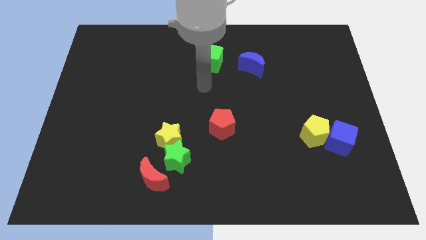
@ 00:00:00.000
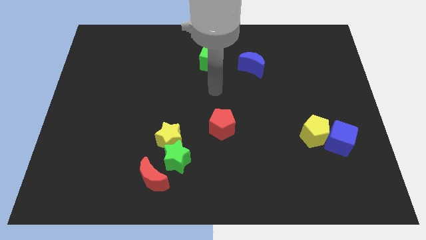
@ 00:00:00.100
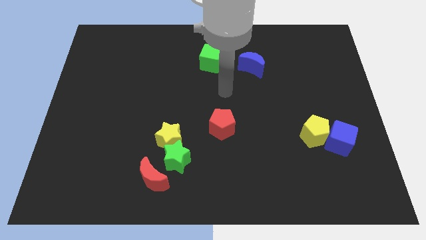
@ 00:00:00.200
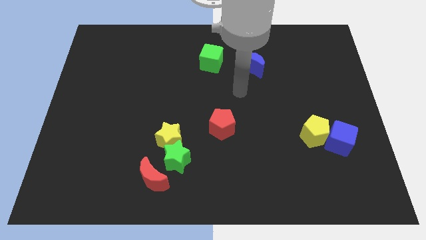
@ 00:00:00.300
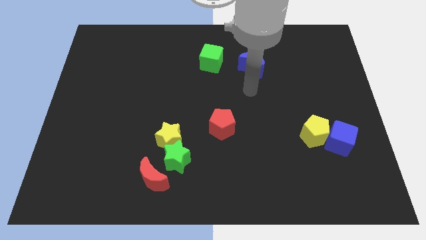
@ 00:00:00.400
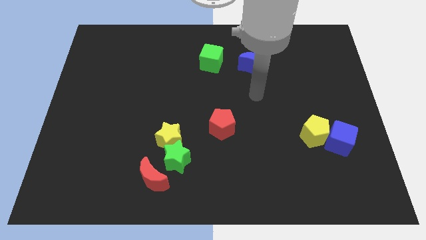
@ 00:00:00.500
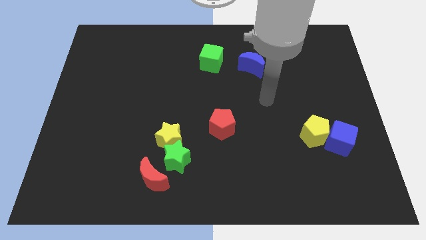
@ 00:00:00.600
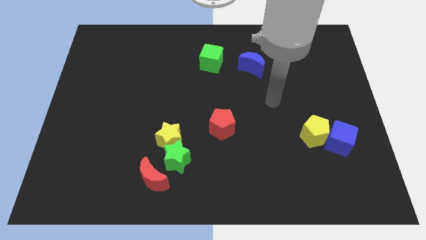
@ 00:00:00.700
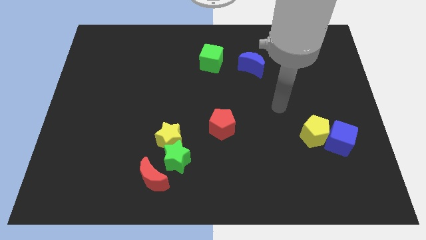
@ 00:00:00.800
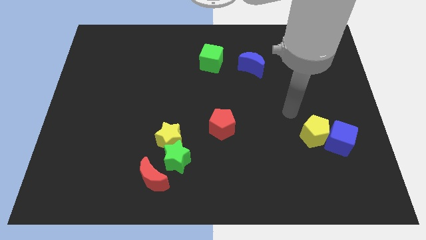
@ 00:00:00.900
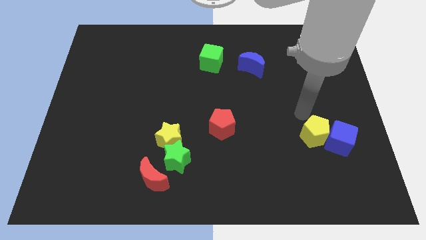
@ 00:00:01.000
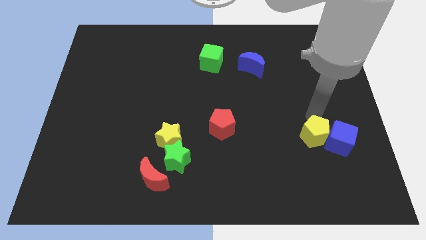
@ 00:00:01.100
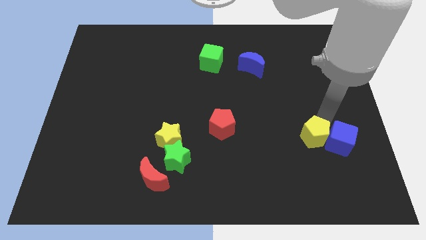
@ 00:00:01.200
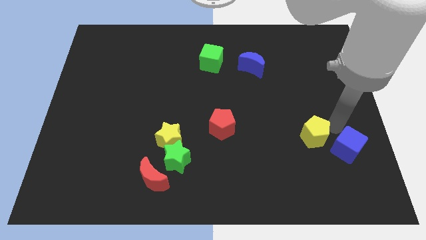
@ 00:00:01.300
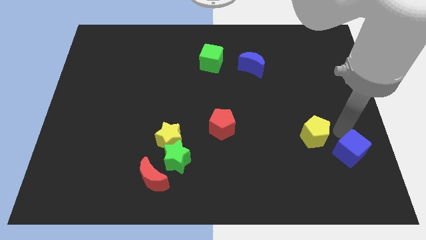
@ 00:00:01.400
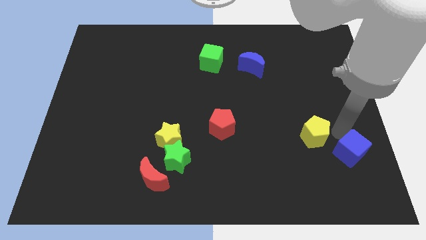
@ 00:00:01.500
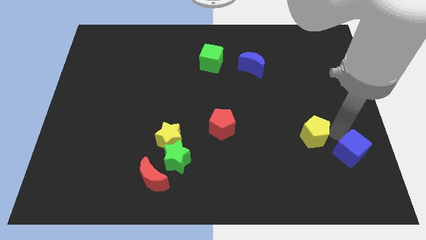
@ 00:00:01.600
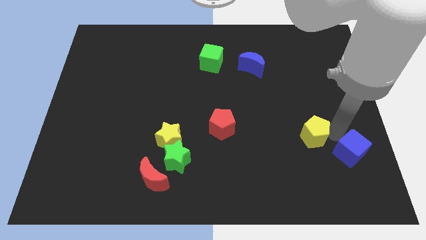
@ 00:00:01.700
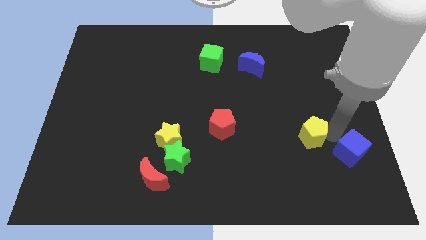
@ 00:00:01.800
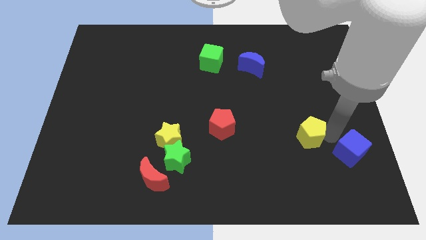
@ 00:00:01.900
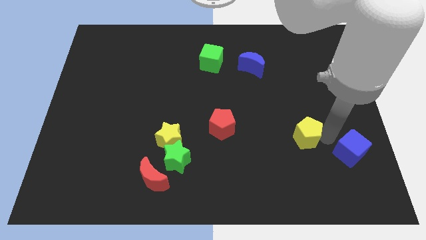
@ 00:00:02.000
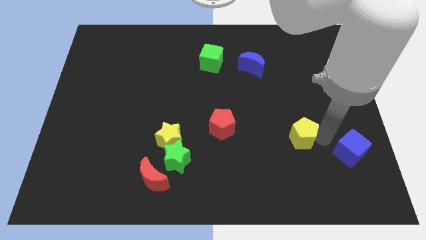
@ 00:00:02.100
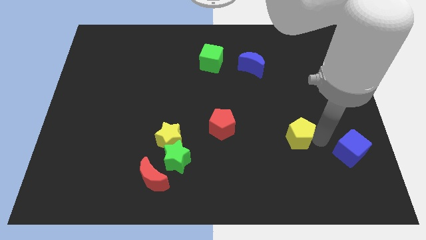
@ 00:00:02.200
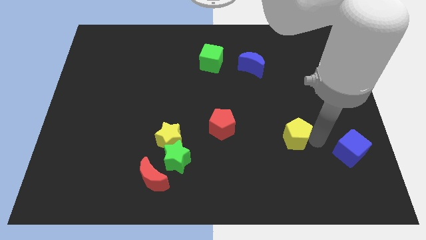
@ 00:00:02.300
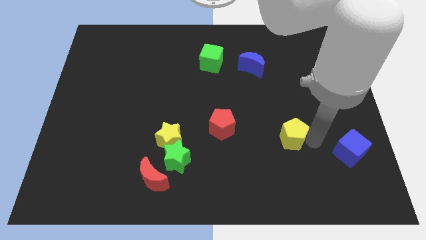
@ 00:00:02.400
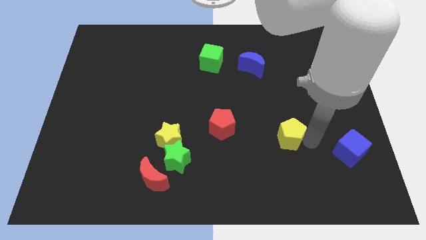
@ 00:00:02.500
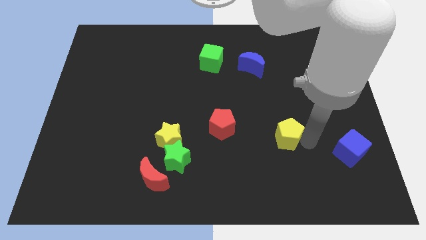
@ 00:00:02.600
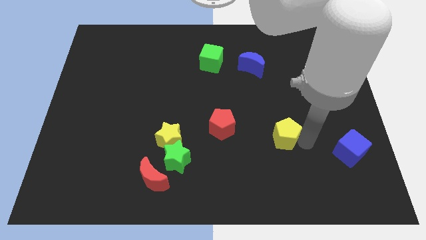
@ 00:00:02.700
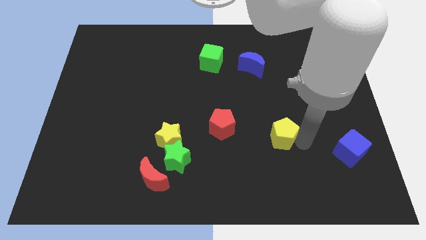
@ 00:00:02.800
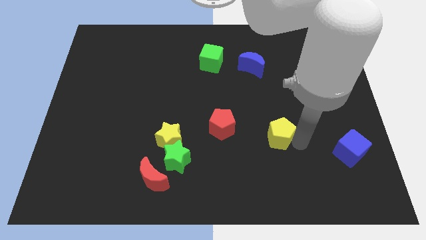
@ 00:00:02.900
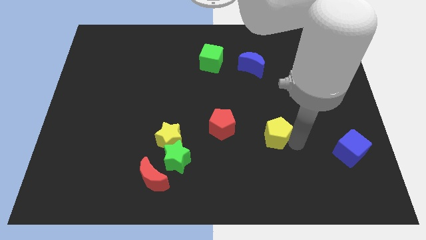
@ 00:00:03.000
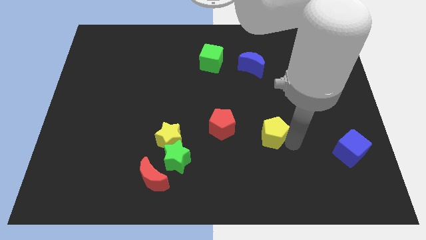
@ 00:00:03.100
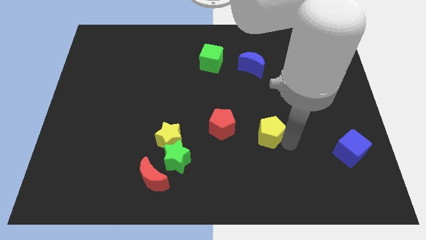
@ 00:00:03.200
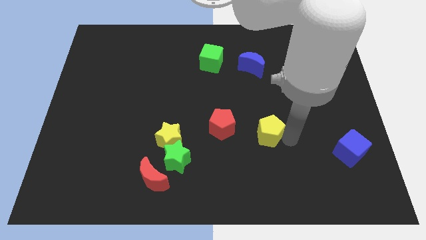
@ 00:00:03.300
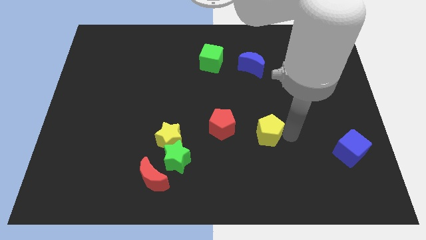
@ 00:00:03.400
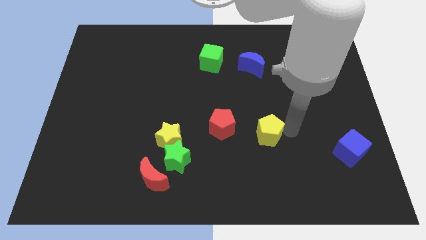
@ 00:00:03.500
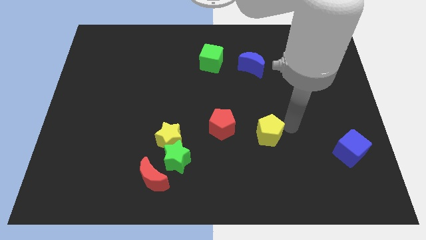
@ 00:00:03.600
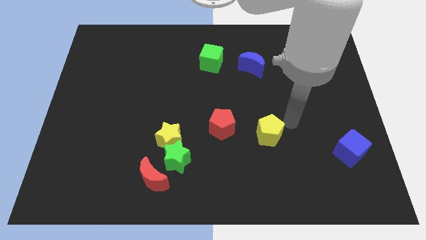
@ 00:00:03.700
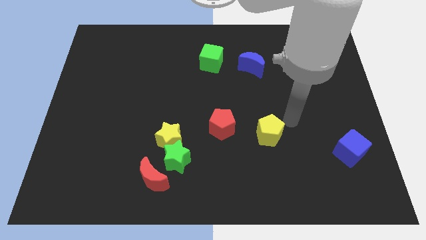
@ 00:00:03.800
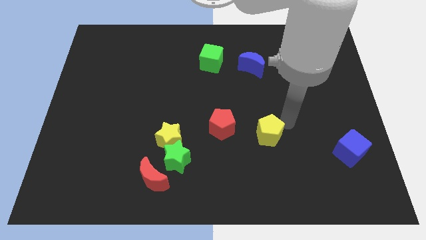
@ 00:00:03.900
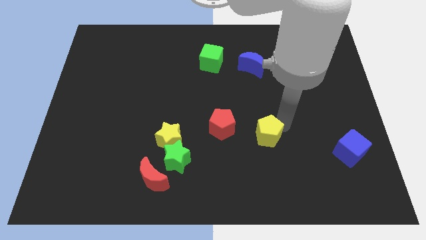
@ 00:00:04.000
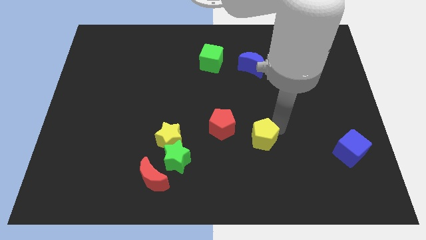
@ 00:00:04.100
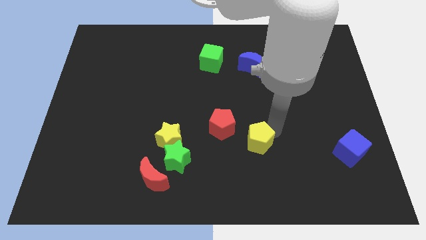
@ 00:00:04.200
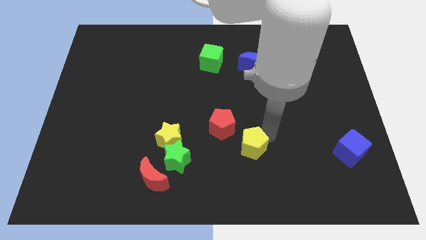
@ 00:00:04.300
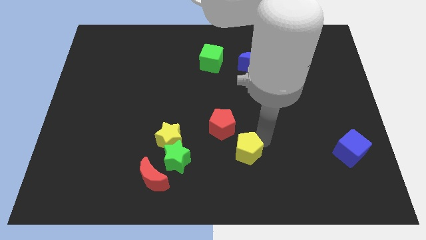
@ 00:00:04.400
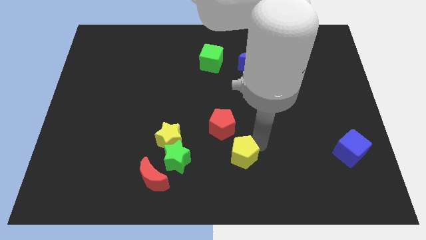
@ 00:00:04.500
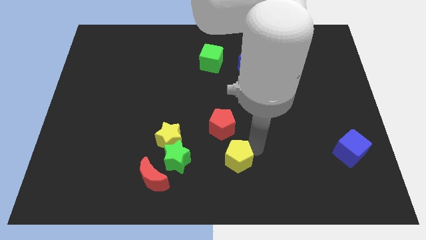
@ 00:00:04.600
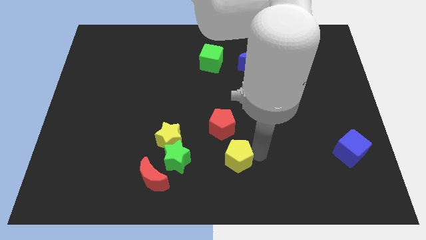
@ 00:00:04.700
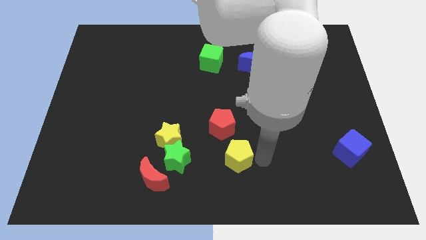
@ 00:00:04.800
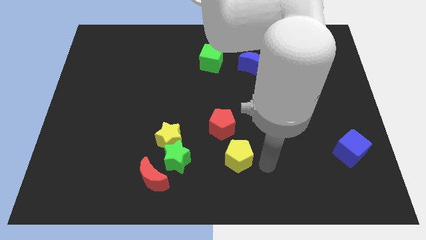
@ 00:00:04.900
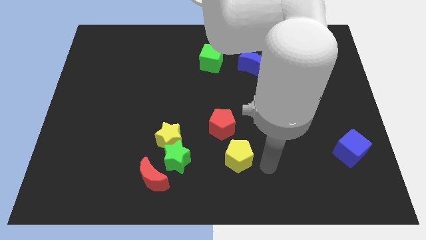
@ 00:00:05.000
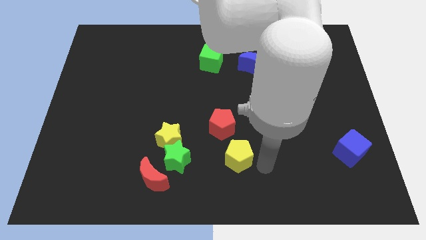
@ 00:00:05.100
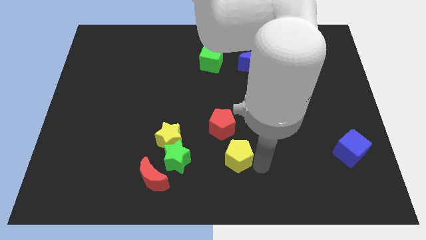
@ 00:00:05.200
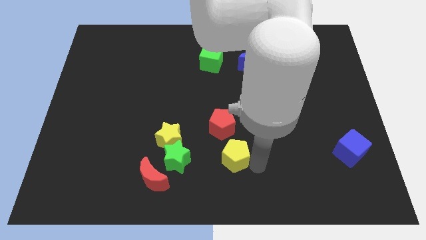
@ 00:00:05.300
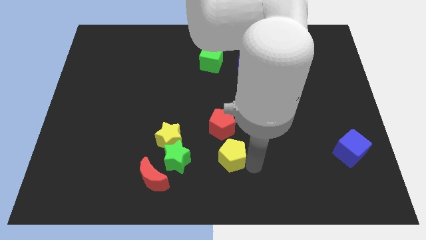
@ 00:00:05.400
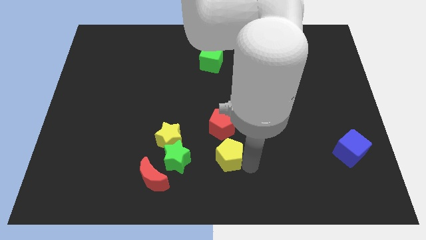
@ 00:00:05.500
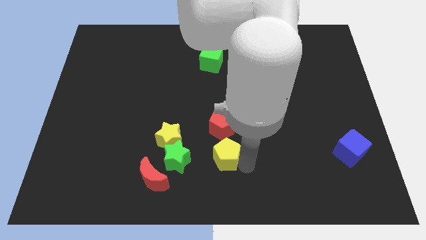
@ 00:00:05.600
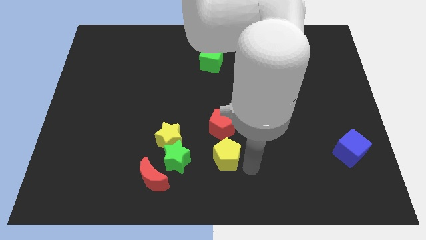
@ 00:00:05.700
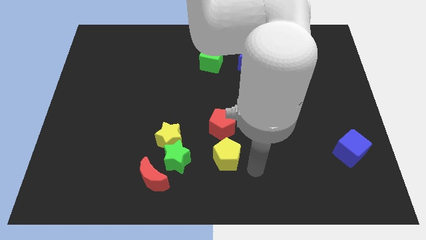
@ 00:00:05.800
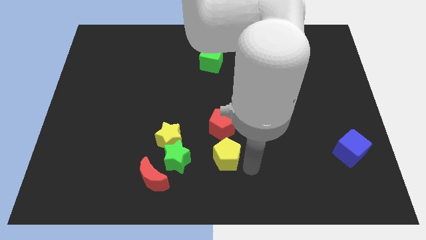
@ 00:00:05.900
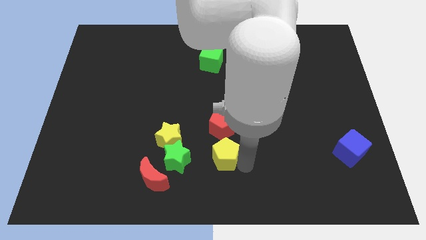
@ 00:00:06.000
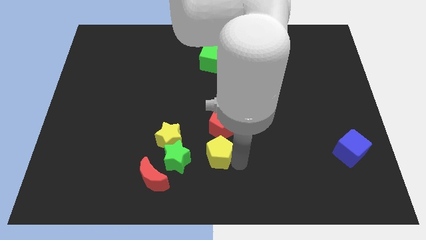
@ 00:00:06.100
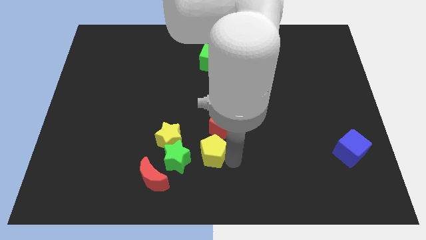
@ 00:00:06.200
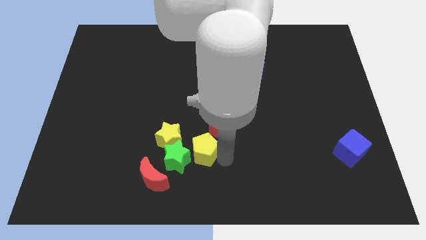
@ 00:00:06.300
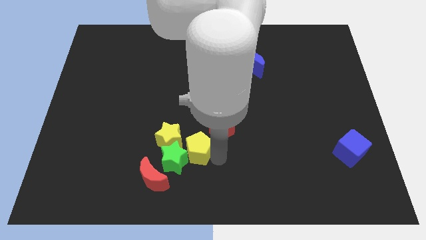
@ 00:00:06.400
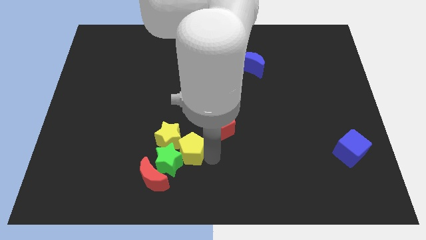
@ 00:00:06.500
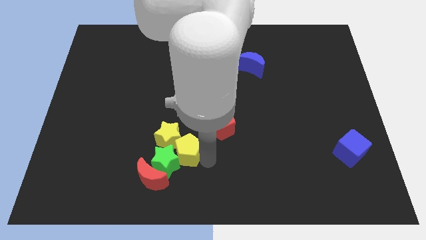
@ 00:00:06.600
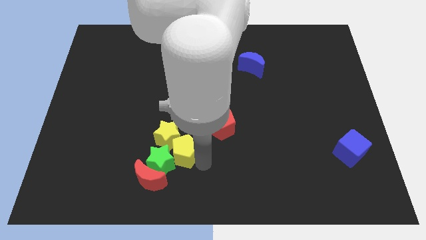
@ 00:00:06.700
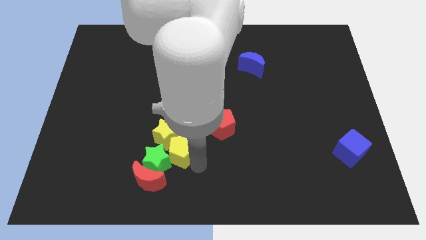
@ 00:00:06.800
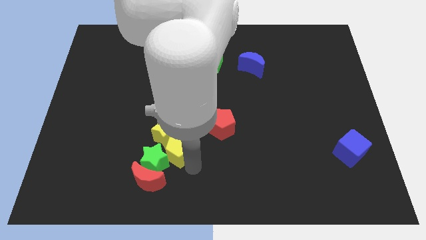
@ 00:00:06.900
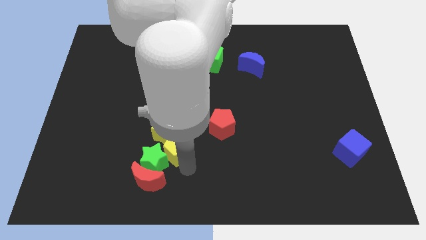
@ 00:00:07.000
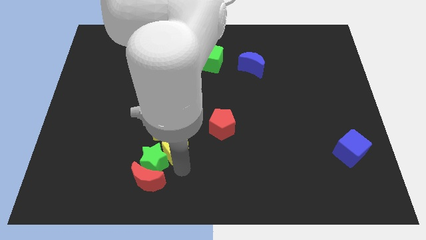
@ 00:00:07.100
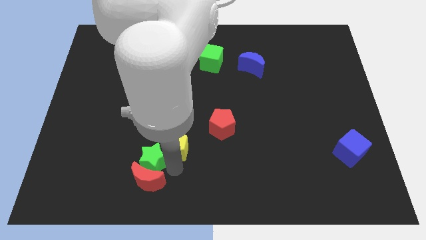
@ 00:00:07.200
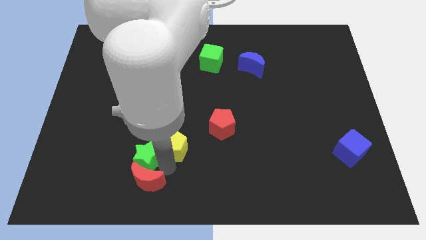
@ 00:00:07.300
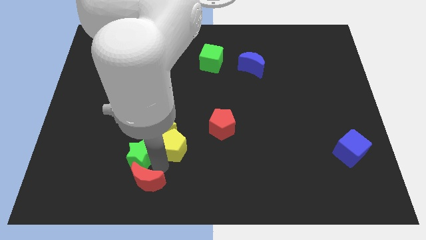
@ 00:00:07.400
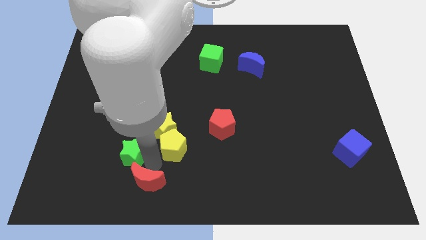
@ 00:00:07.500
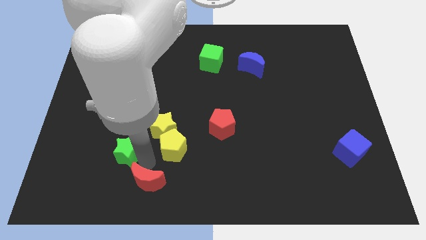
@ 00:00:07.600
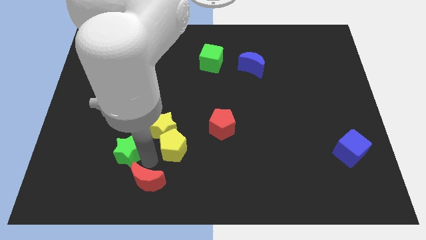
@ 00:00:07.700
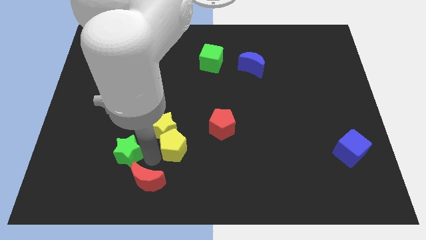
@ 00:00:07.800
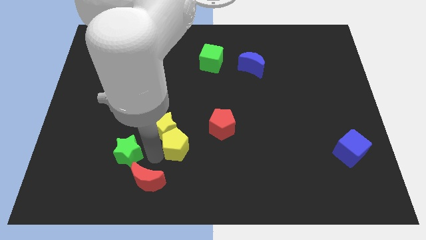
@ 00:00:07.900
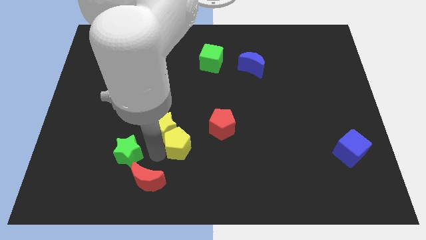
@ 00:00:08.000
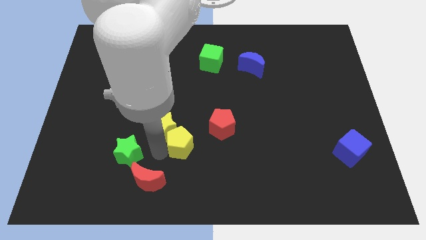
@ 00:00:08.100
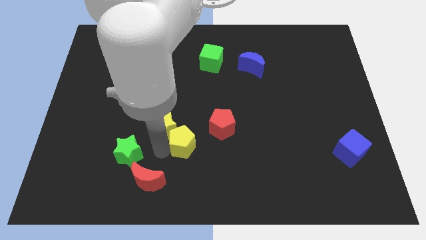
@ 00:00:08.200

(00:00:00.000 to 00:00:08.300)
slide the yellow pentagon to the left of the red pentagon
